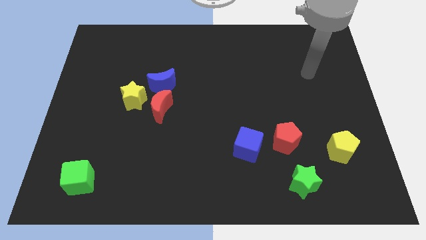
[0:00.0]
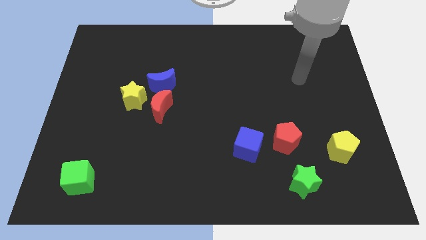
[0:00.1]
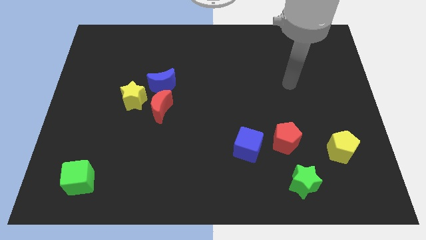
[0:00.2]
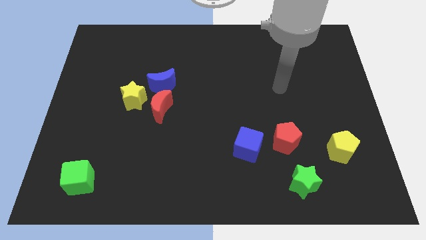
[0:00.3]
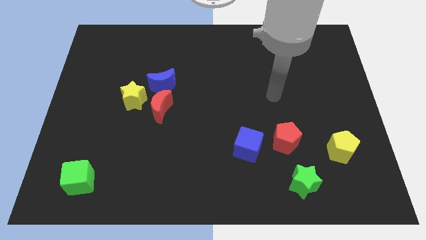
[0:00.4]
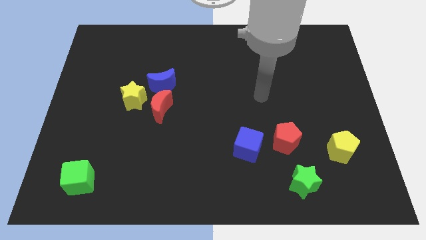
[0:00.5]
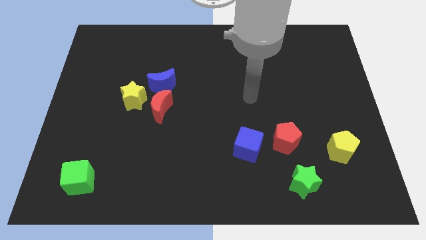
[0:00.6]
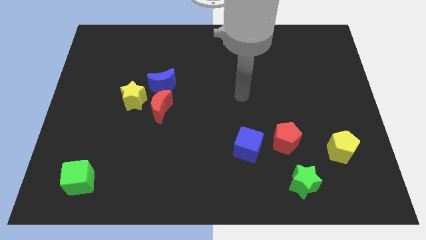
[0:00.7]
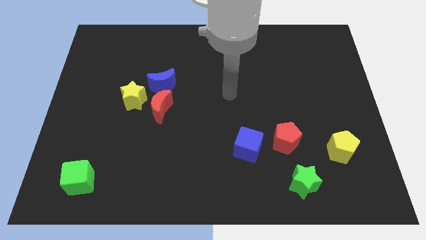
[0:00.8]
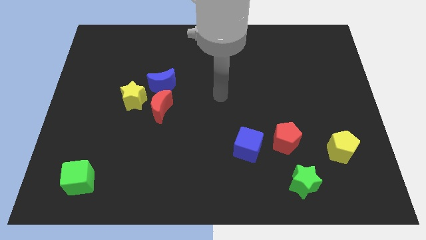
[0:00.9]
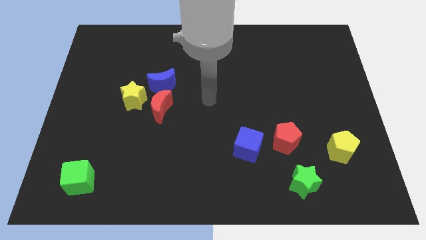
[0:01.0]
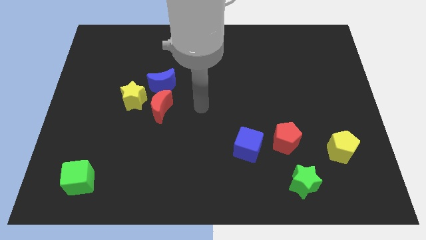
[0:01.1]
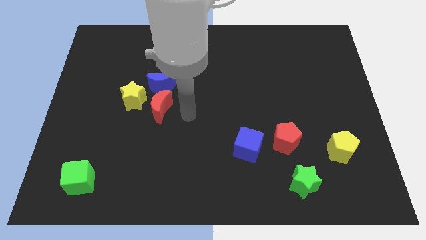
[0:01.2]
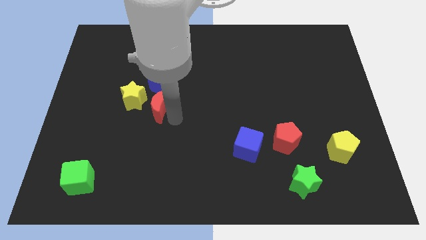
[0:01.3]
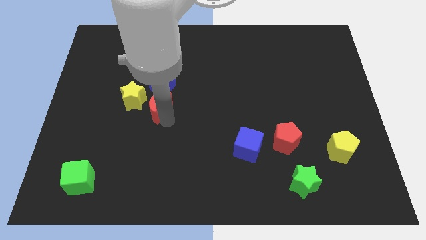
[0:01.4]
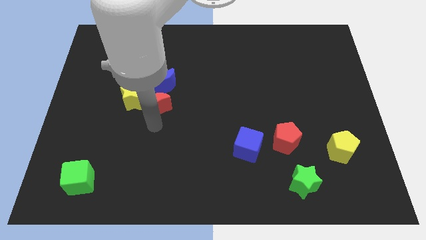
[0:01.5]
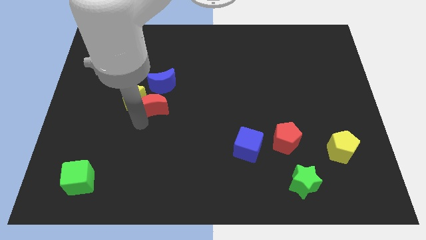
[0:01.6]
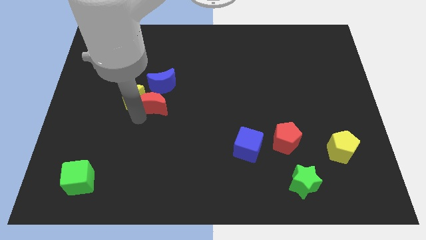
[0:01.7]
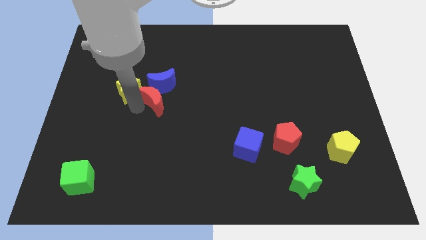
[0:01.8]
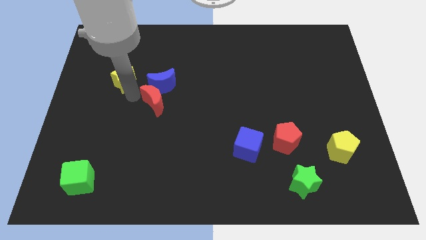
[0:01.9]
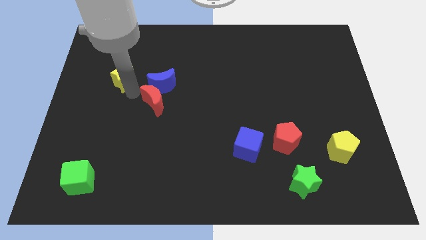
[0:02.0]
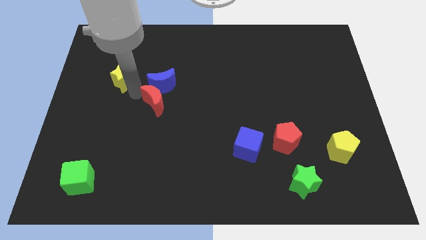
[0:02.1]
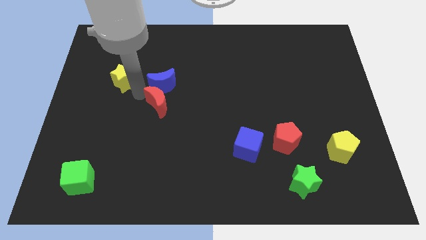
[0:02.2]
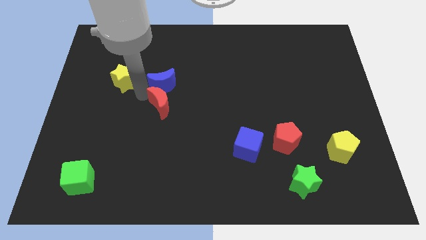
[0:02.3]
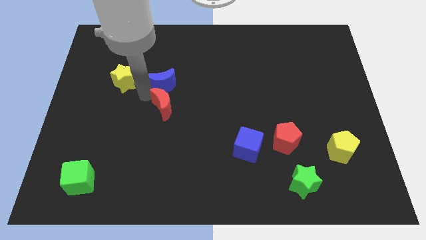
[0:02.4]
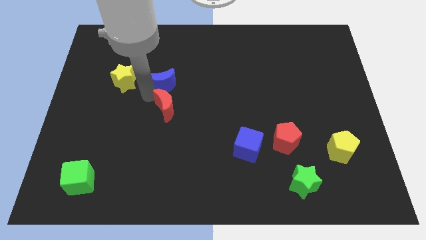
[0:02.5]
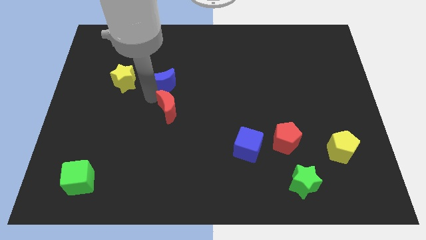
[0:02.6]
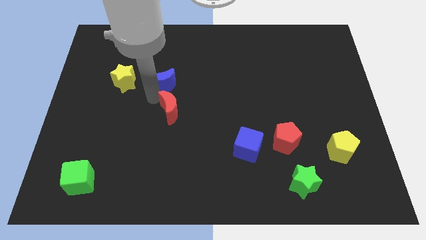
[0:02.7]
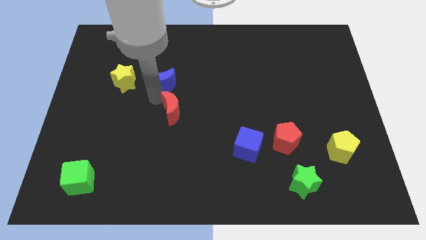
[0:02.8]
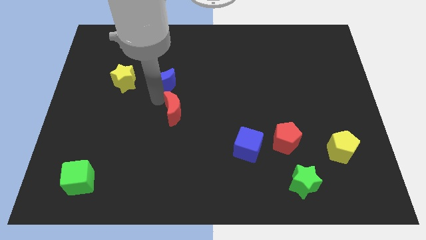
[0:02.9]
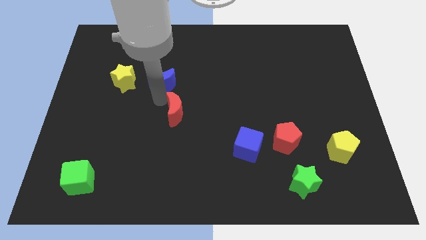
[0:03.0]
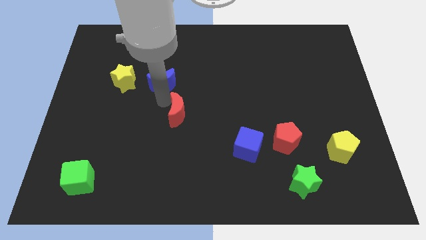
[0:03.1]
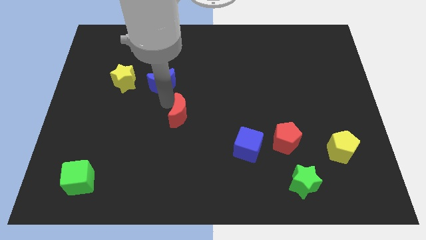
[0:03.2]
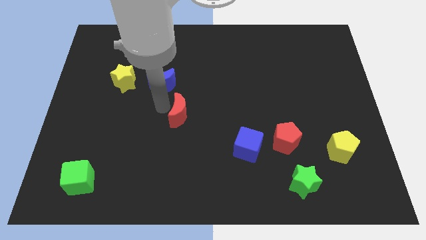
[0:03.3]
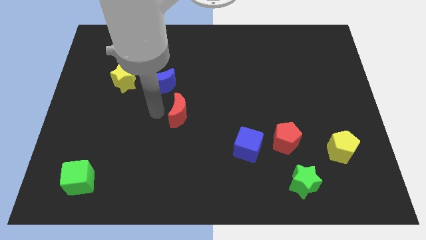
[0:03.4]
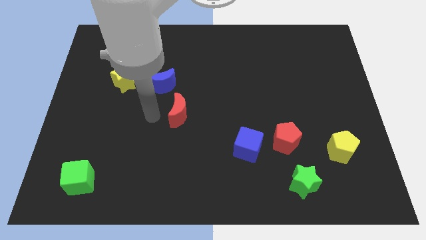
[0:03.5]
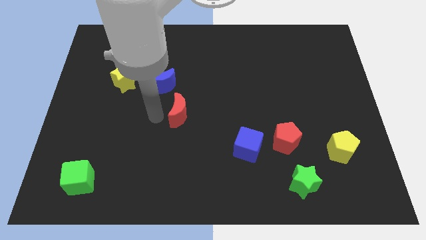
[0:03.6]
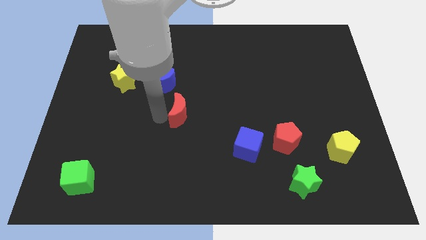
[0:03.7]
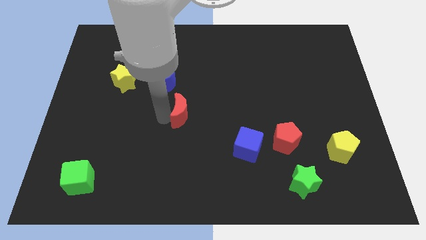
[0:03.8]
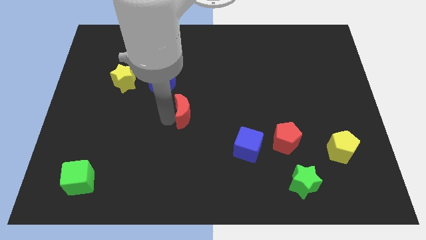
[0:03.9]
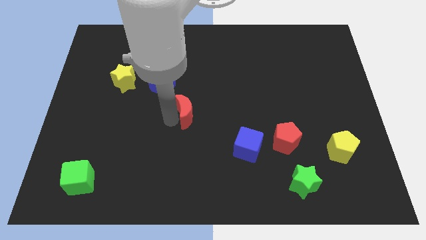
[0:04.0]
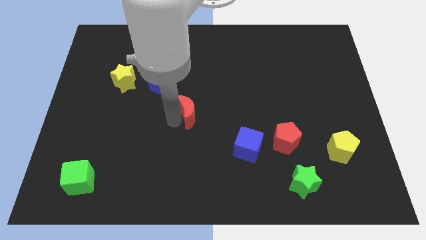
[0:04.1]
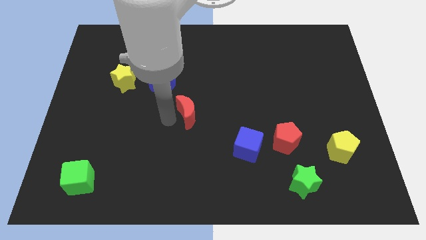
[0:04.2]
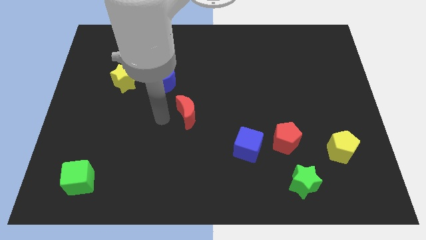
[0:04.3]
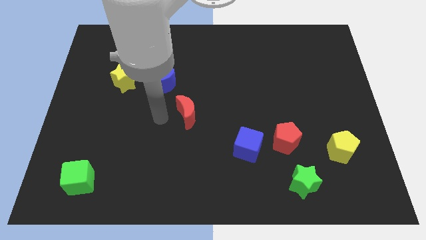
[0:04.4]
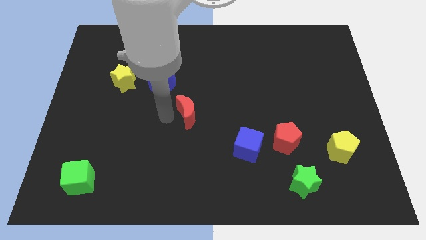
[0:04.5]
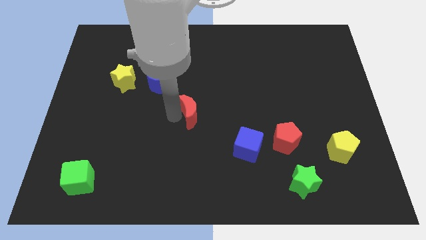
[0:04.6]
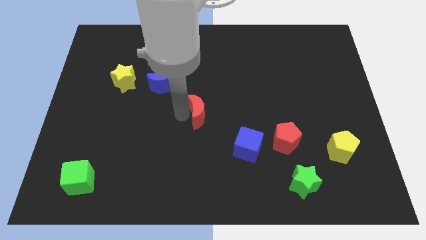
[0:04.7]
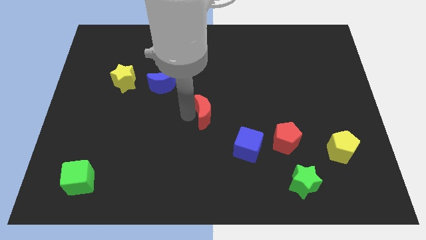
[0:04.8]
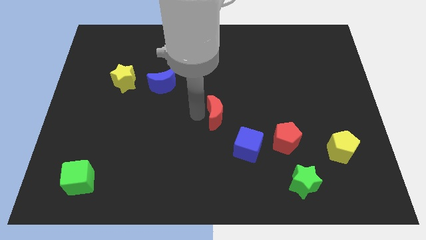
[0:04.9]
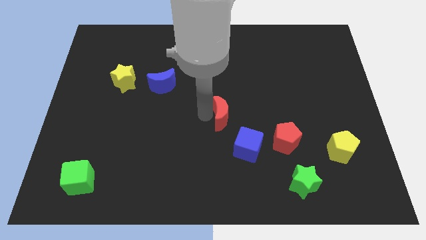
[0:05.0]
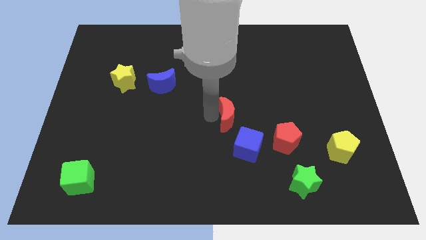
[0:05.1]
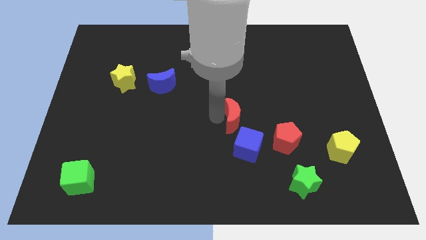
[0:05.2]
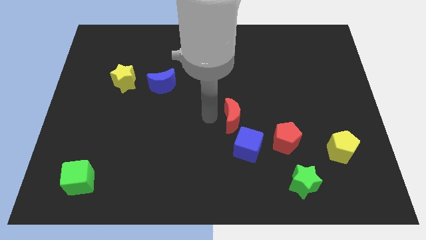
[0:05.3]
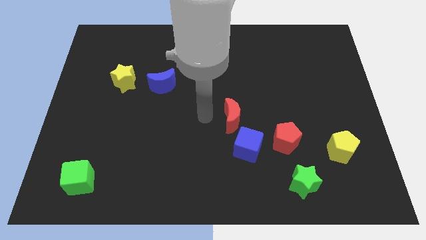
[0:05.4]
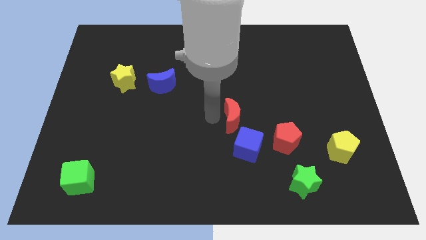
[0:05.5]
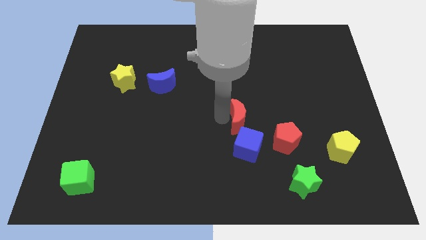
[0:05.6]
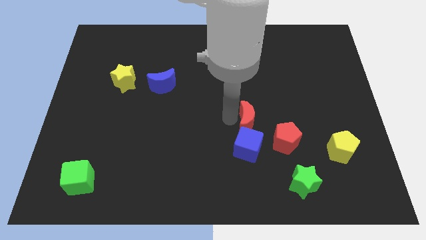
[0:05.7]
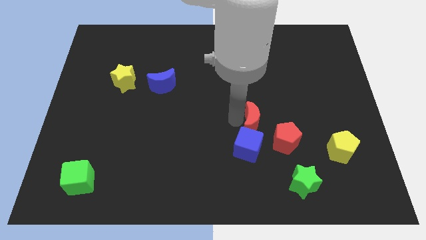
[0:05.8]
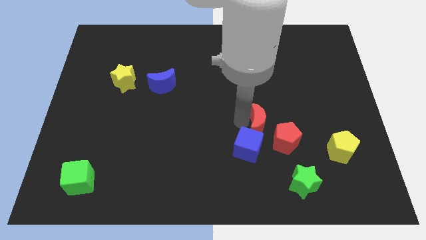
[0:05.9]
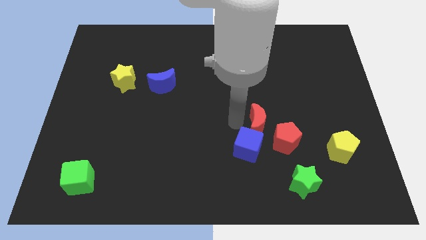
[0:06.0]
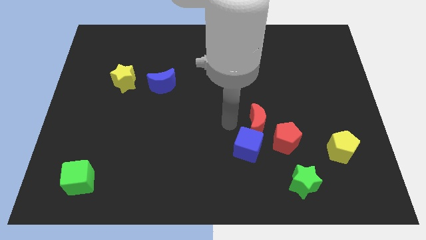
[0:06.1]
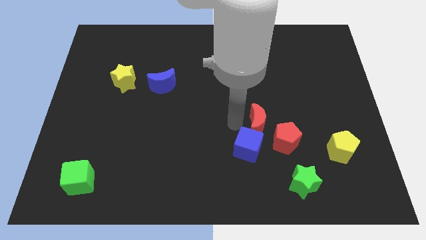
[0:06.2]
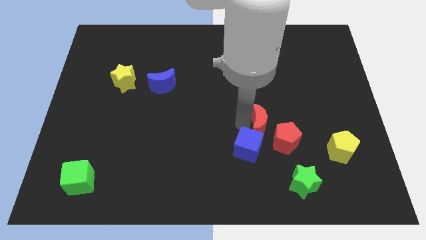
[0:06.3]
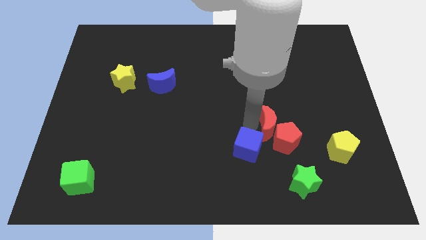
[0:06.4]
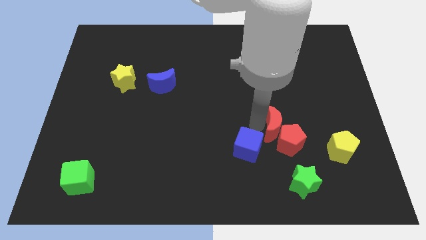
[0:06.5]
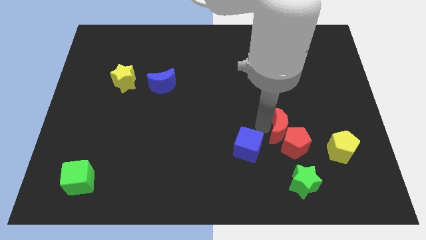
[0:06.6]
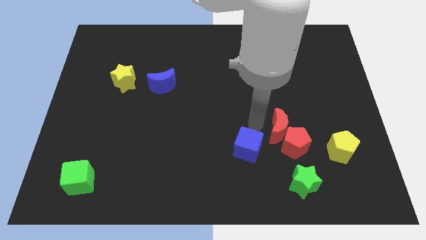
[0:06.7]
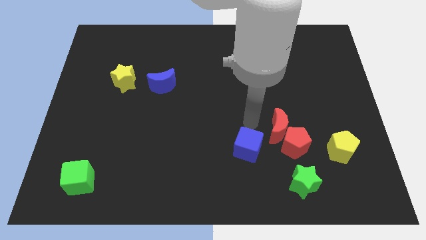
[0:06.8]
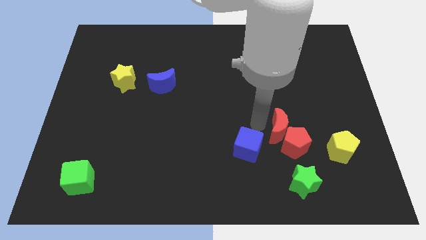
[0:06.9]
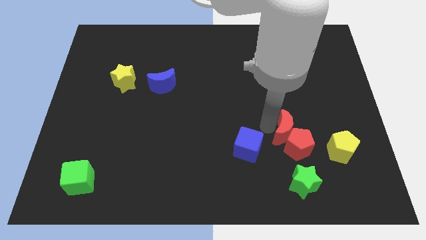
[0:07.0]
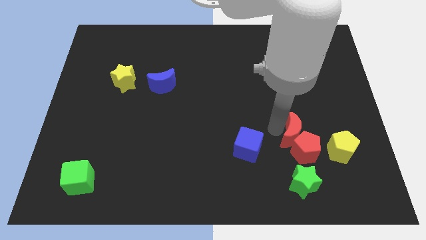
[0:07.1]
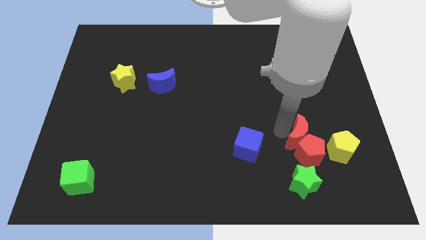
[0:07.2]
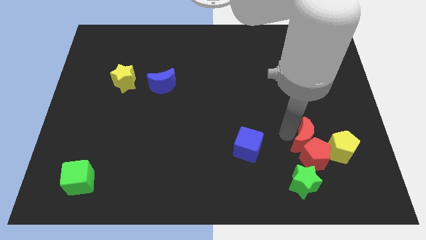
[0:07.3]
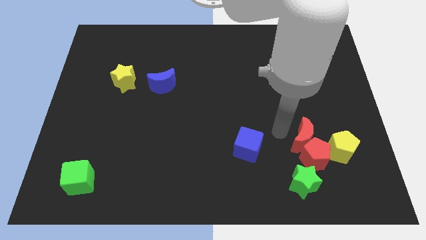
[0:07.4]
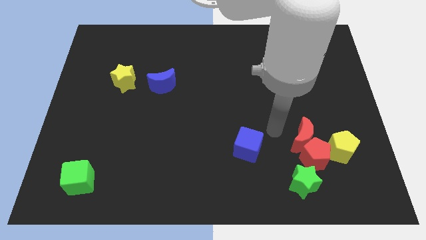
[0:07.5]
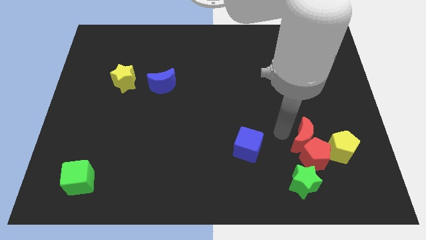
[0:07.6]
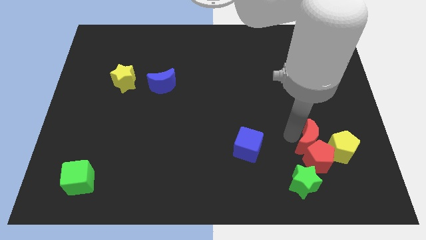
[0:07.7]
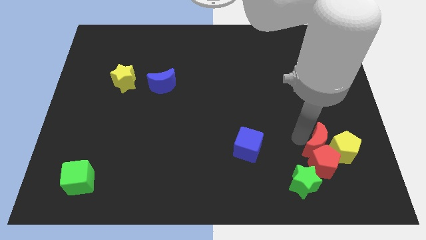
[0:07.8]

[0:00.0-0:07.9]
put the red moon to the yellow pentagon
